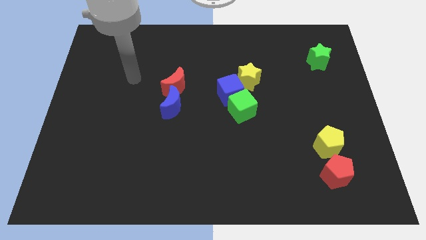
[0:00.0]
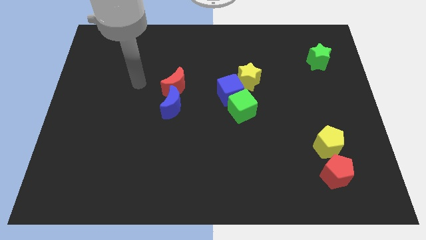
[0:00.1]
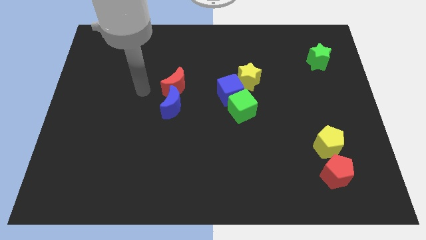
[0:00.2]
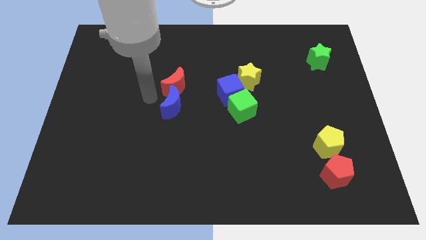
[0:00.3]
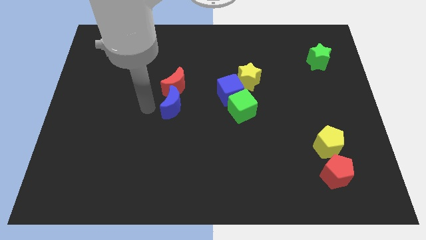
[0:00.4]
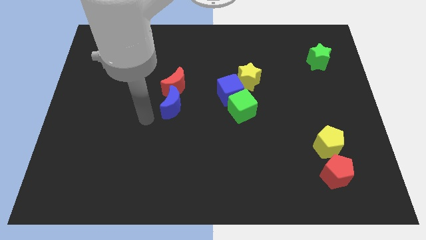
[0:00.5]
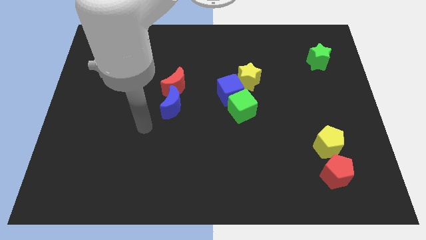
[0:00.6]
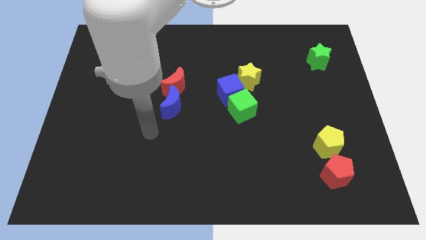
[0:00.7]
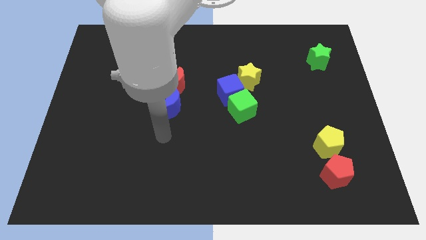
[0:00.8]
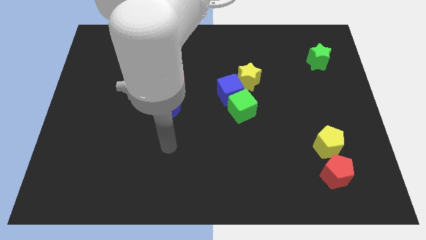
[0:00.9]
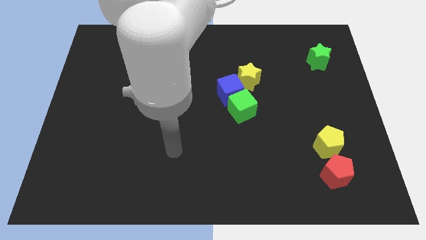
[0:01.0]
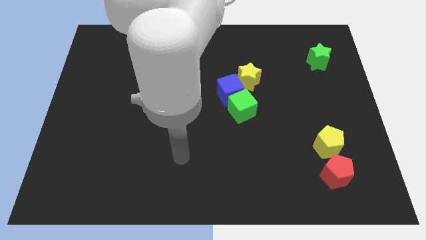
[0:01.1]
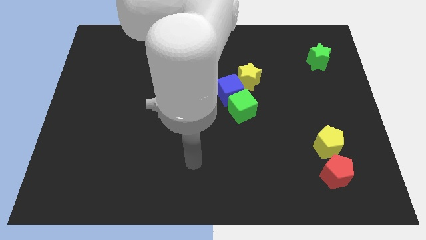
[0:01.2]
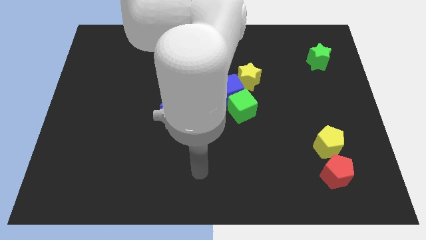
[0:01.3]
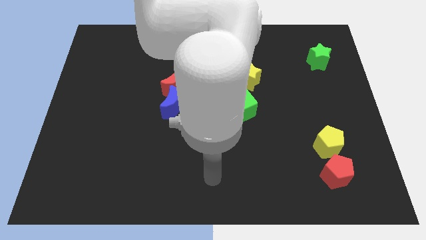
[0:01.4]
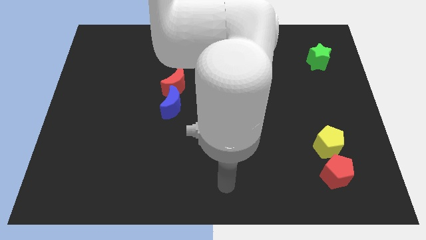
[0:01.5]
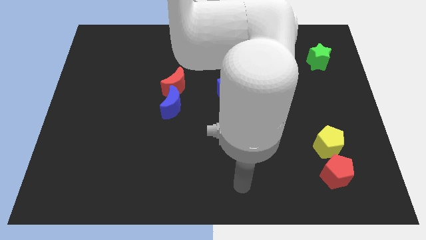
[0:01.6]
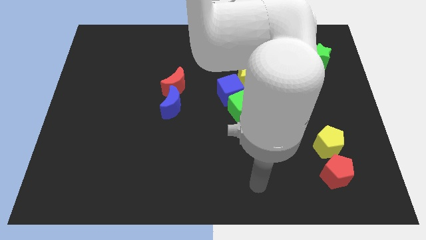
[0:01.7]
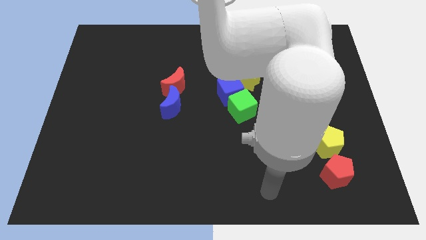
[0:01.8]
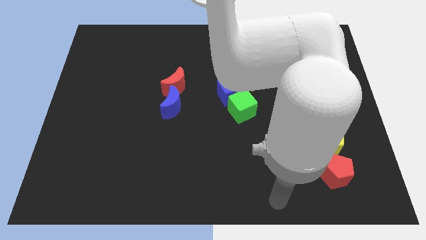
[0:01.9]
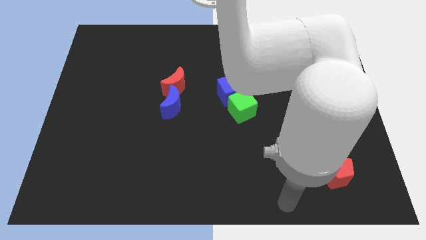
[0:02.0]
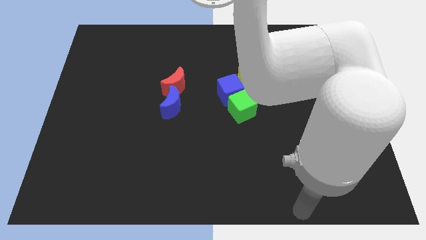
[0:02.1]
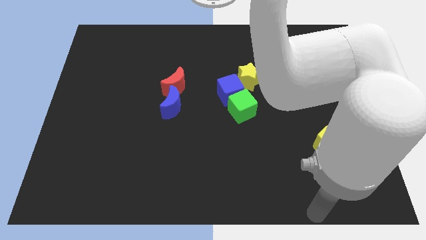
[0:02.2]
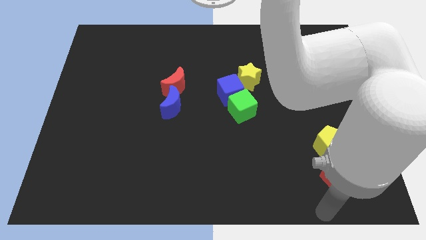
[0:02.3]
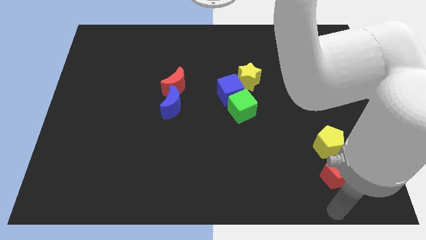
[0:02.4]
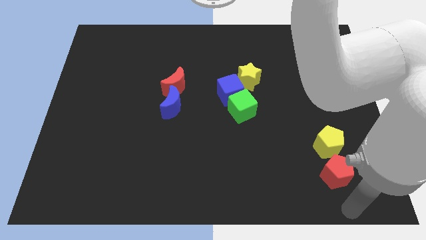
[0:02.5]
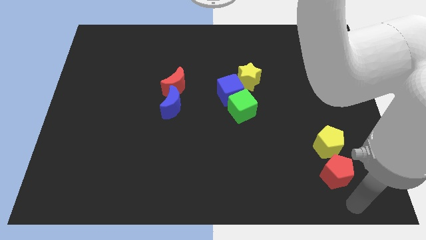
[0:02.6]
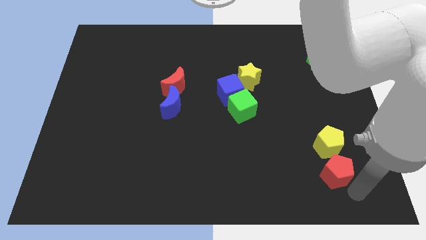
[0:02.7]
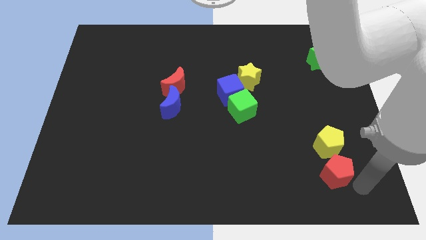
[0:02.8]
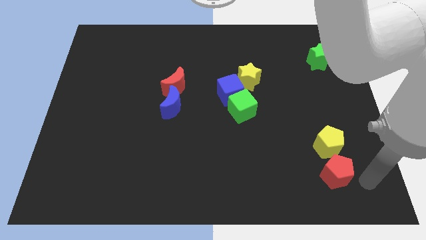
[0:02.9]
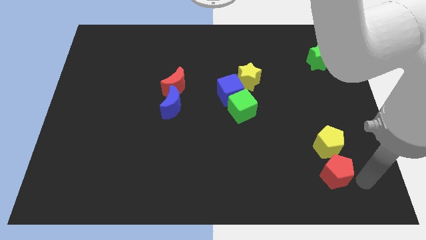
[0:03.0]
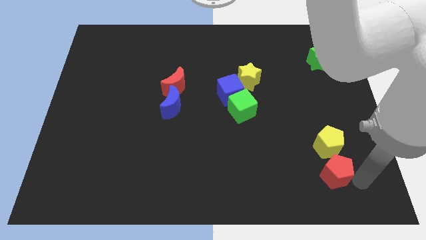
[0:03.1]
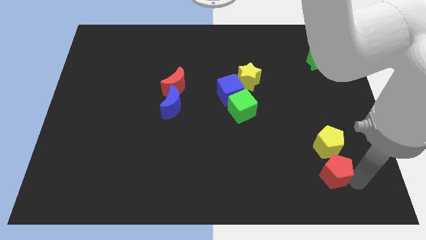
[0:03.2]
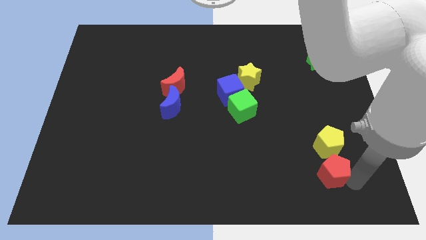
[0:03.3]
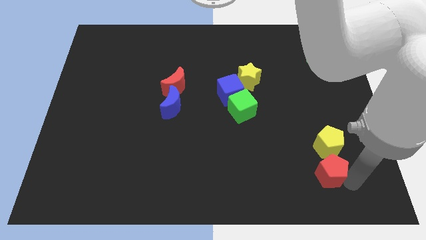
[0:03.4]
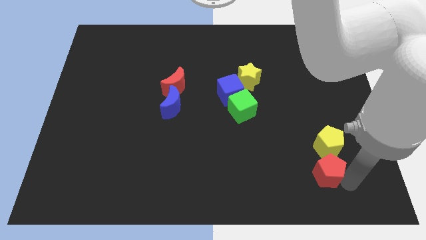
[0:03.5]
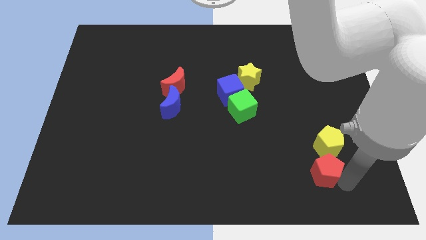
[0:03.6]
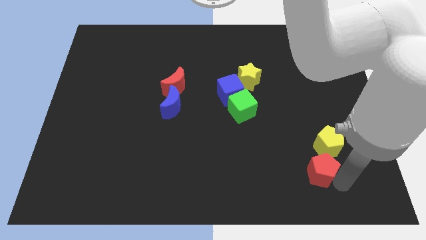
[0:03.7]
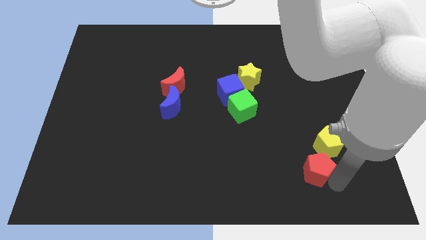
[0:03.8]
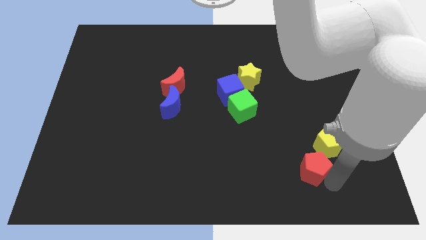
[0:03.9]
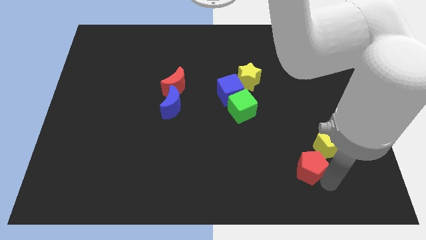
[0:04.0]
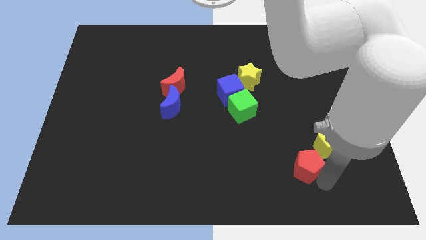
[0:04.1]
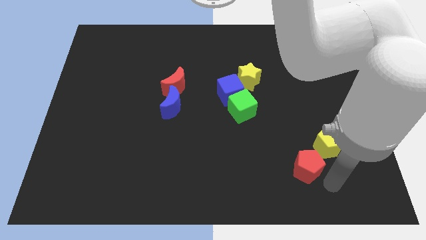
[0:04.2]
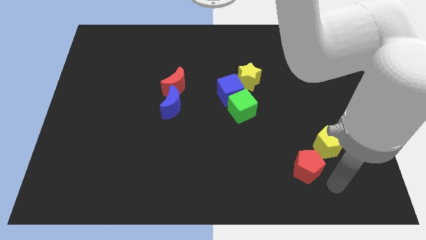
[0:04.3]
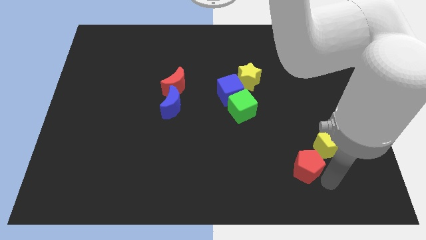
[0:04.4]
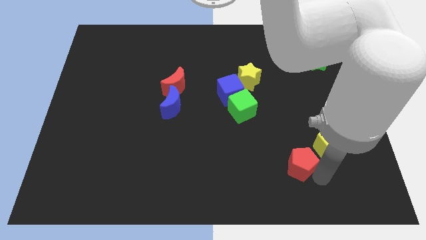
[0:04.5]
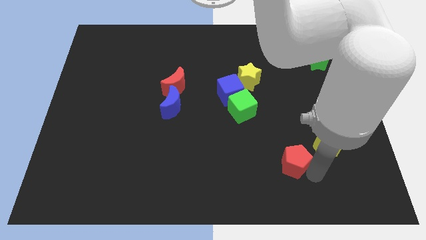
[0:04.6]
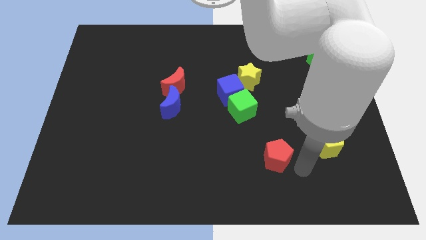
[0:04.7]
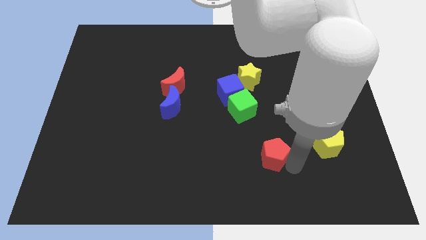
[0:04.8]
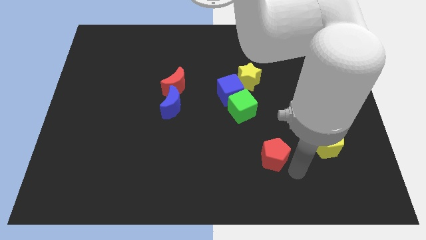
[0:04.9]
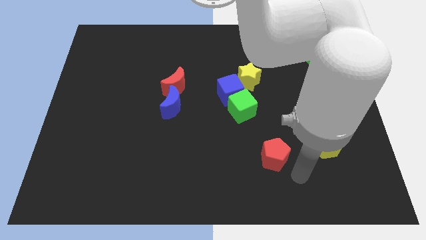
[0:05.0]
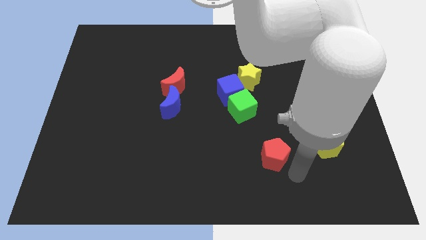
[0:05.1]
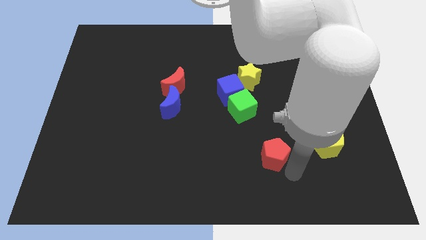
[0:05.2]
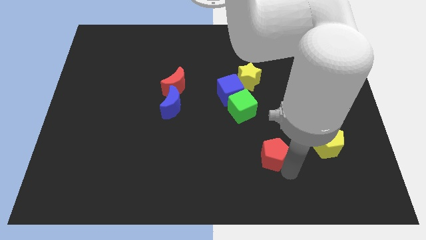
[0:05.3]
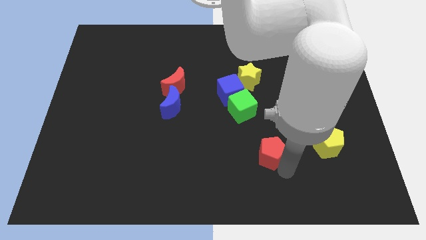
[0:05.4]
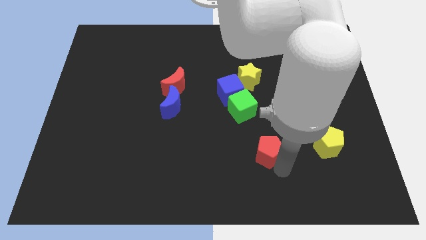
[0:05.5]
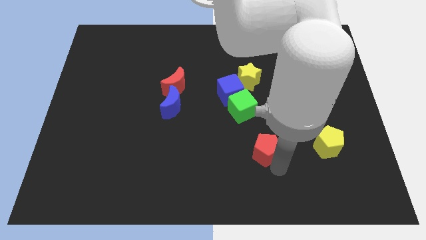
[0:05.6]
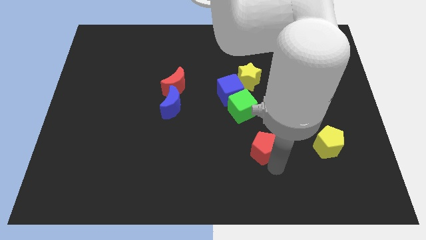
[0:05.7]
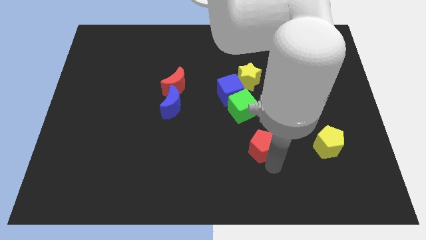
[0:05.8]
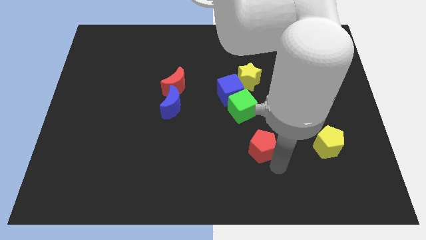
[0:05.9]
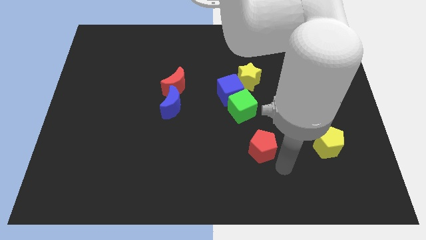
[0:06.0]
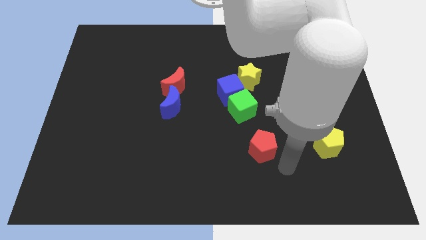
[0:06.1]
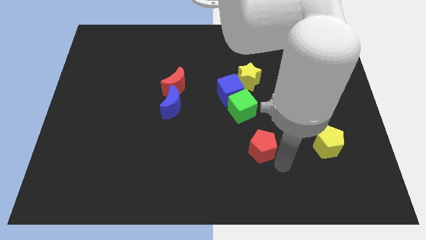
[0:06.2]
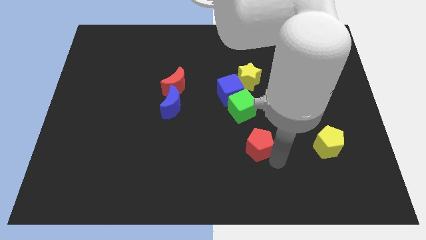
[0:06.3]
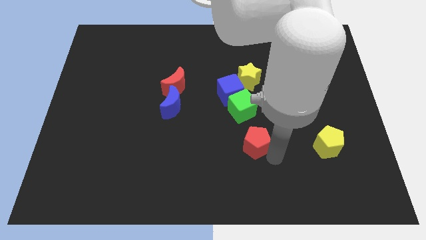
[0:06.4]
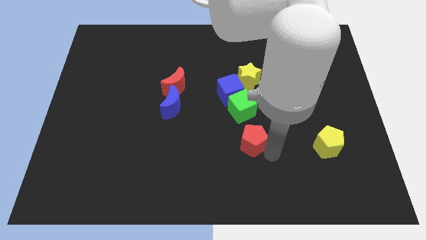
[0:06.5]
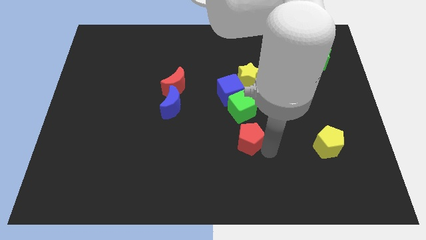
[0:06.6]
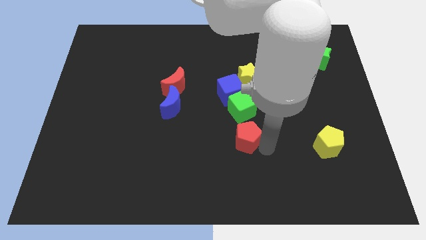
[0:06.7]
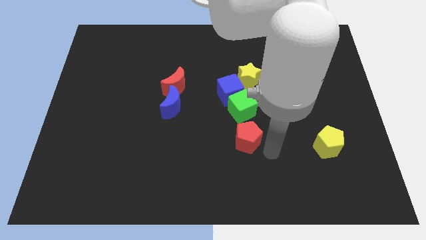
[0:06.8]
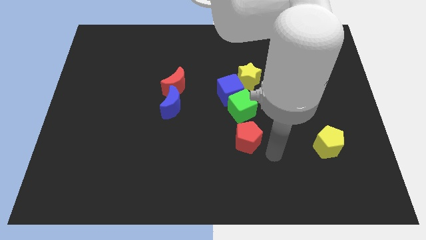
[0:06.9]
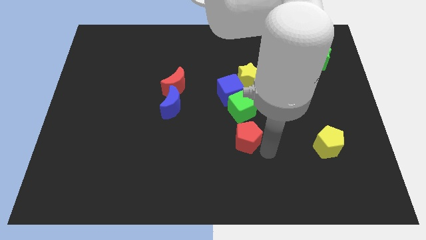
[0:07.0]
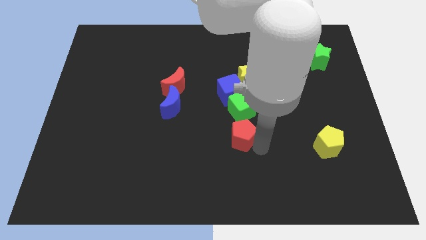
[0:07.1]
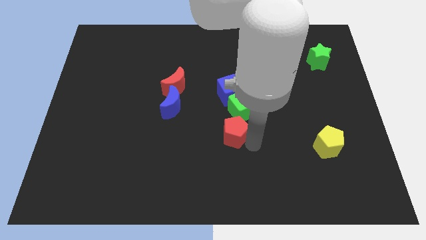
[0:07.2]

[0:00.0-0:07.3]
push the red pentagon to the bottom left of the green cube
